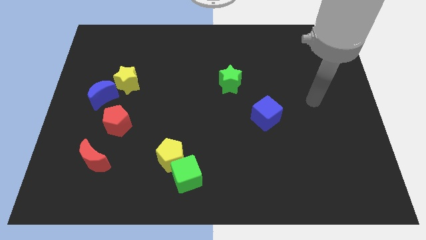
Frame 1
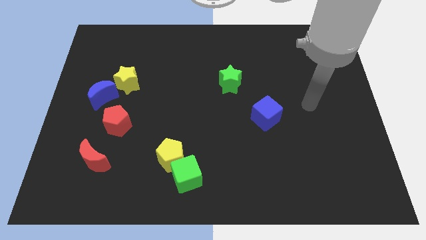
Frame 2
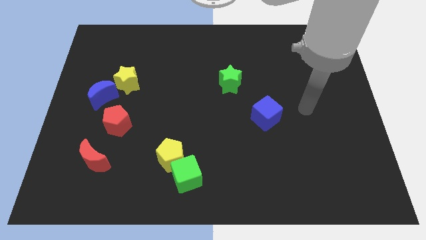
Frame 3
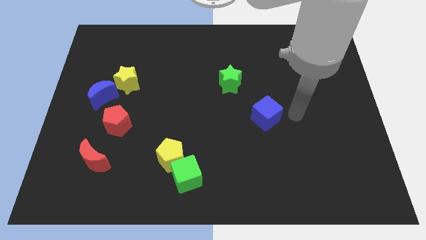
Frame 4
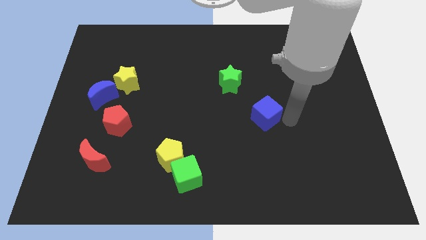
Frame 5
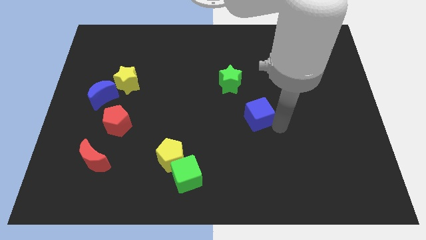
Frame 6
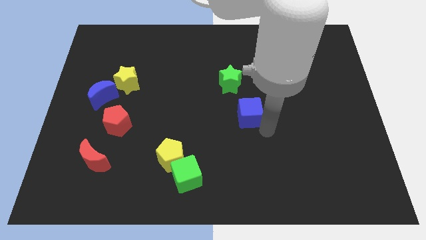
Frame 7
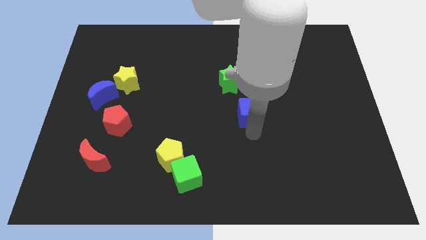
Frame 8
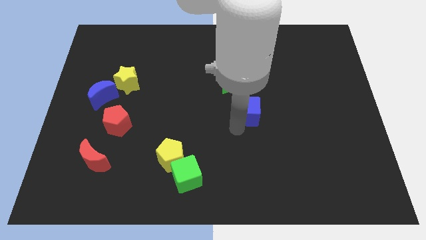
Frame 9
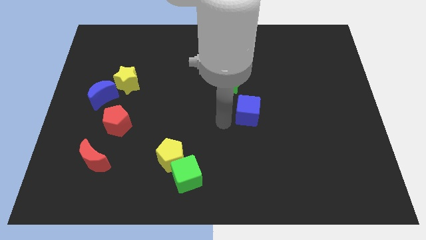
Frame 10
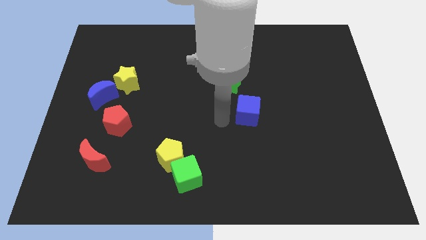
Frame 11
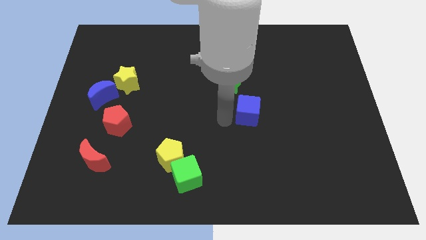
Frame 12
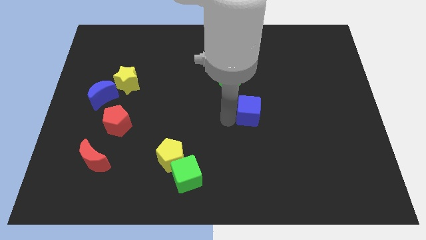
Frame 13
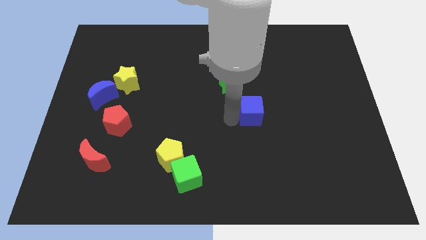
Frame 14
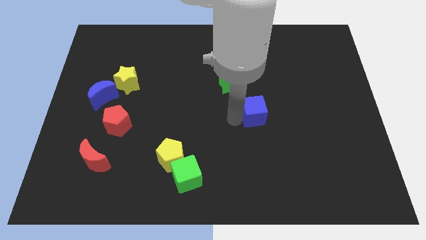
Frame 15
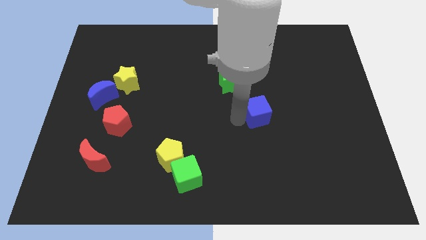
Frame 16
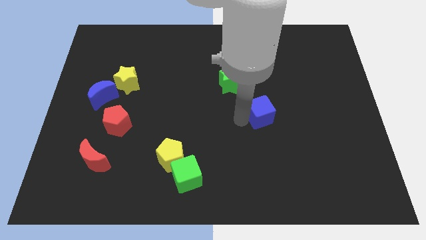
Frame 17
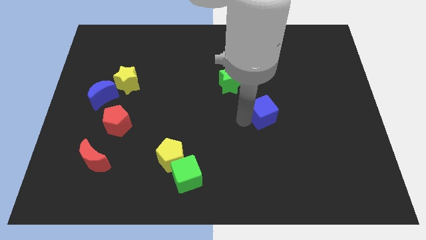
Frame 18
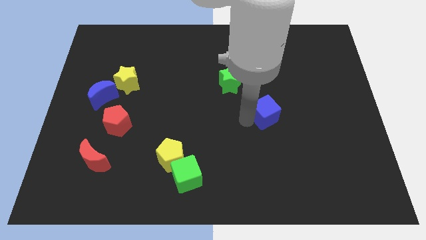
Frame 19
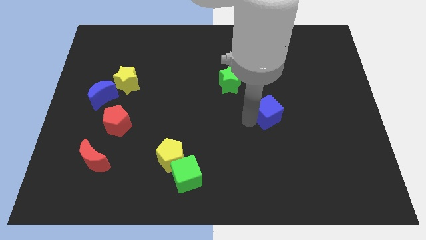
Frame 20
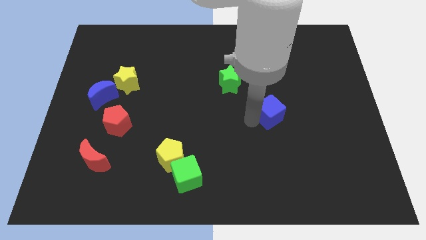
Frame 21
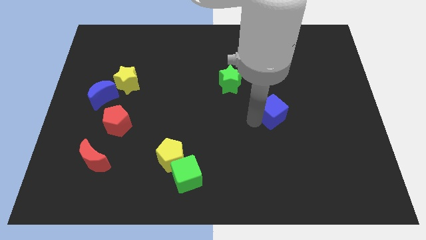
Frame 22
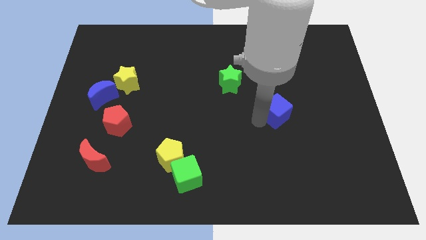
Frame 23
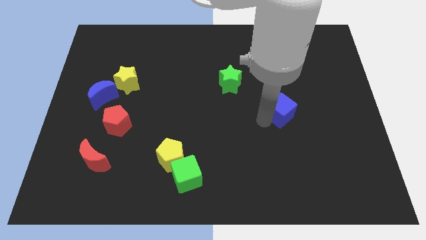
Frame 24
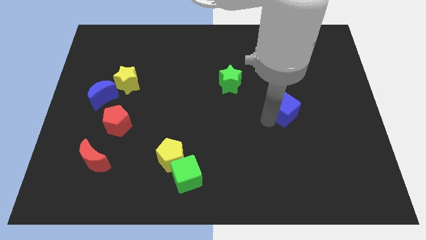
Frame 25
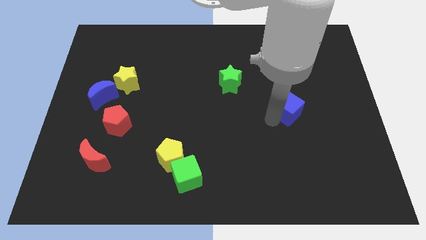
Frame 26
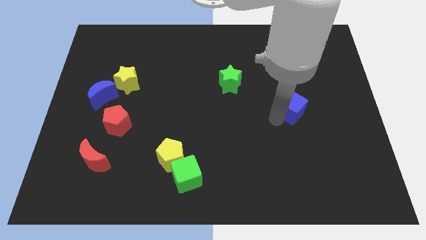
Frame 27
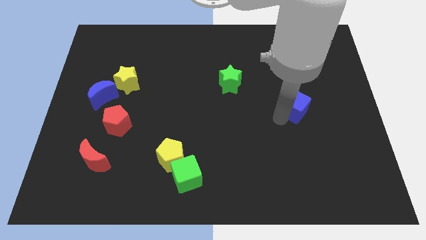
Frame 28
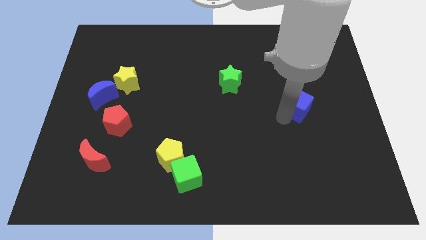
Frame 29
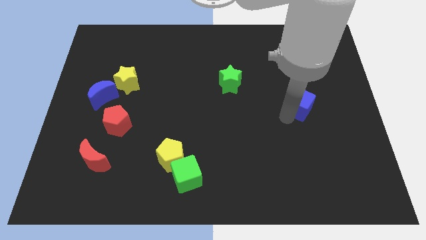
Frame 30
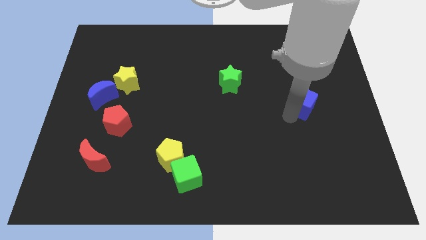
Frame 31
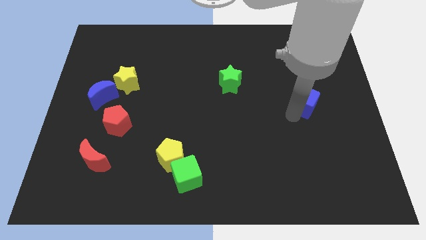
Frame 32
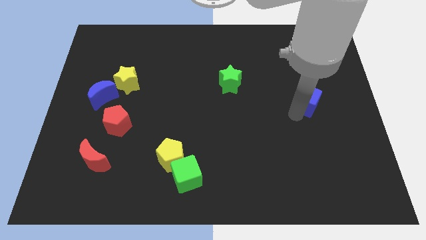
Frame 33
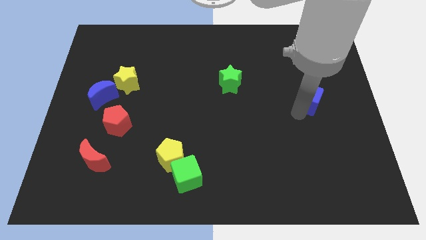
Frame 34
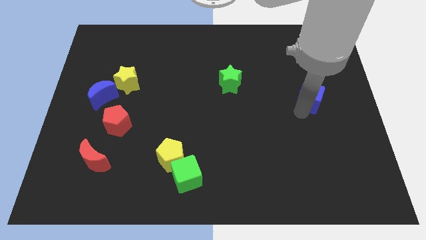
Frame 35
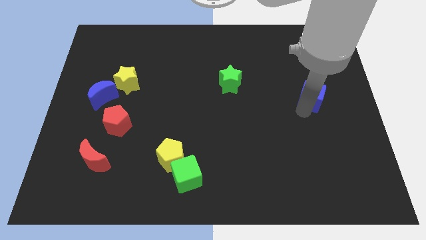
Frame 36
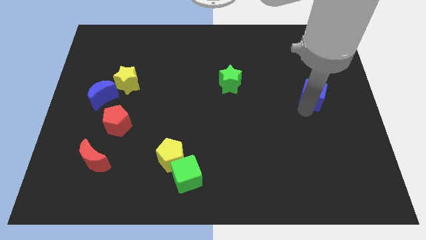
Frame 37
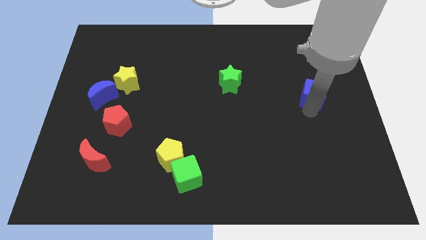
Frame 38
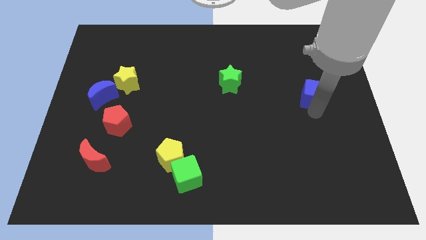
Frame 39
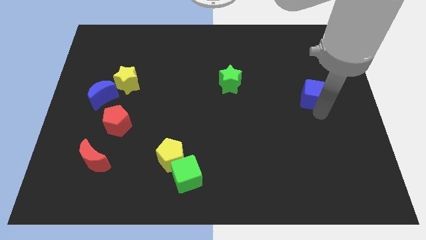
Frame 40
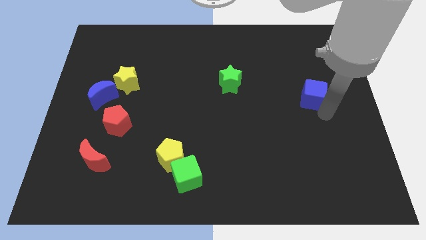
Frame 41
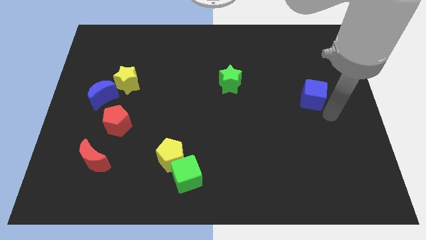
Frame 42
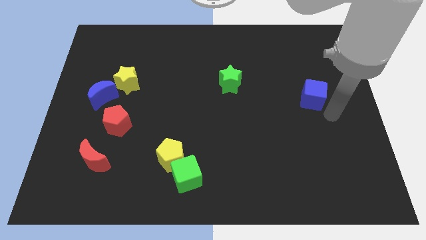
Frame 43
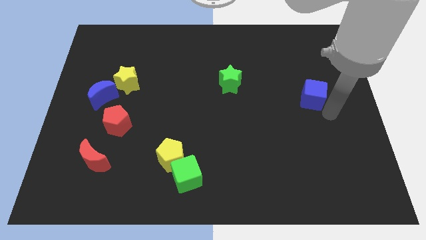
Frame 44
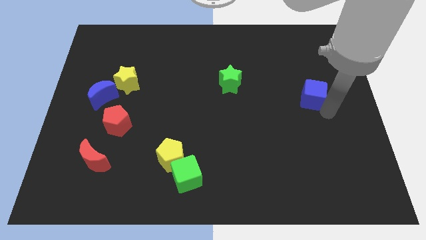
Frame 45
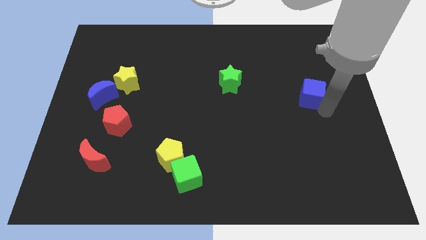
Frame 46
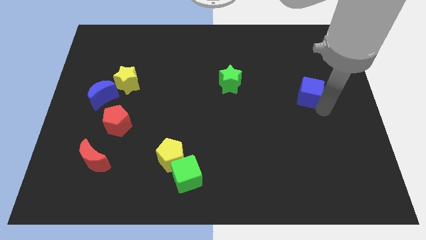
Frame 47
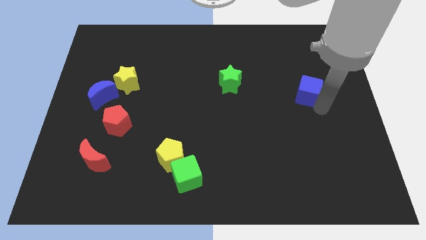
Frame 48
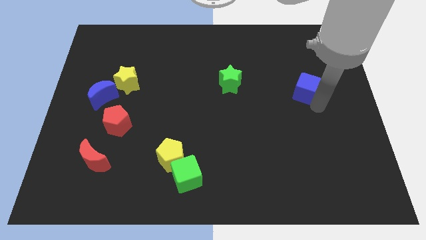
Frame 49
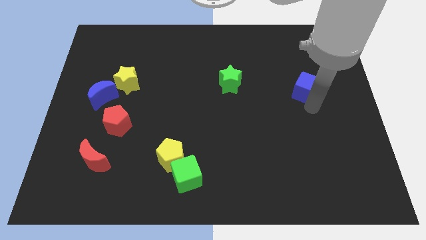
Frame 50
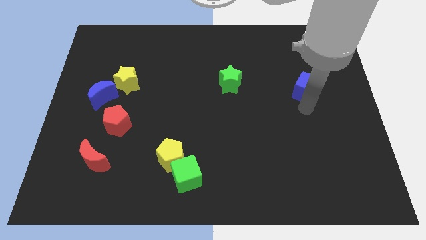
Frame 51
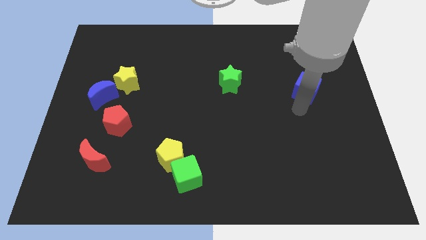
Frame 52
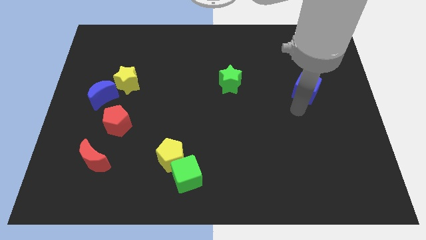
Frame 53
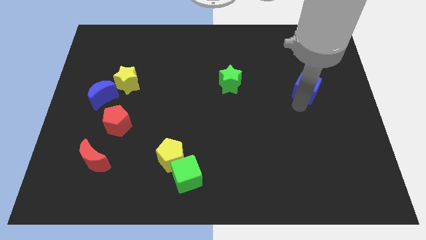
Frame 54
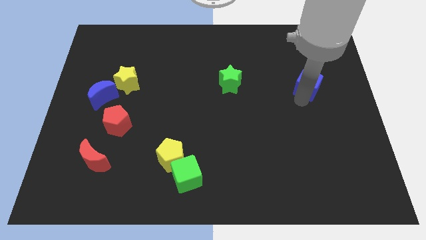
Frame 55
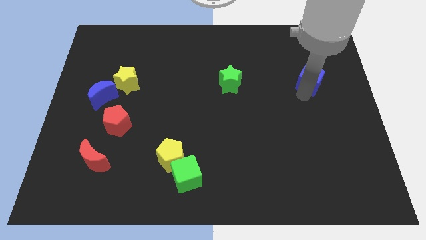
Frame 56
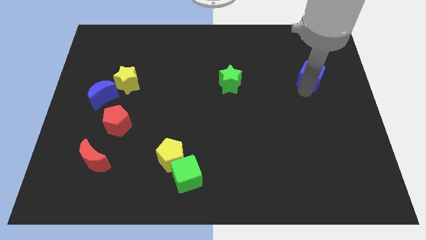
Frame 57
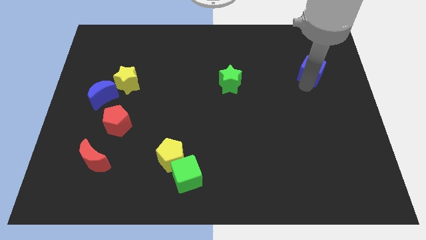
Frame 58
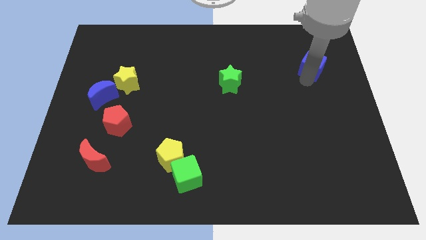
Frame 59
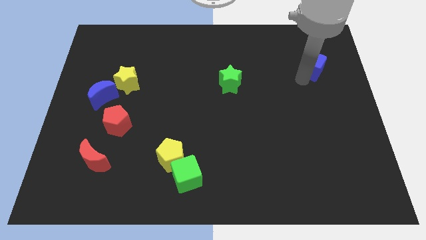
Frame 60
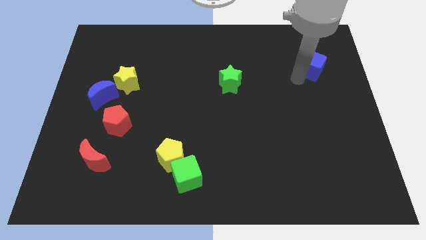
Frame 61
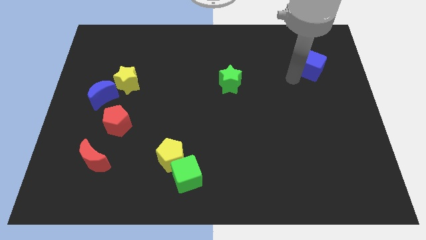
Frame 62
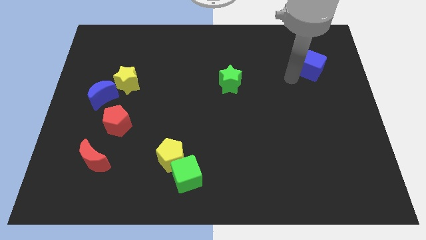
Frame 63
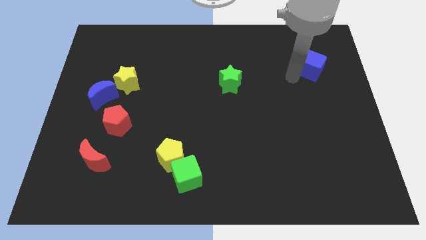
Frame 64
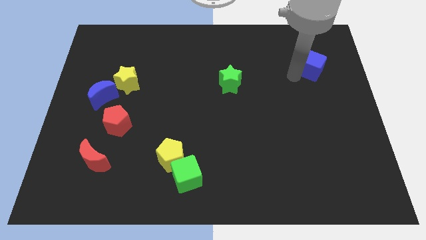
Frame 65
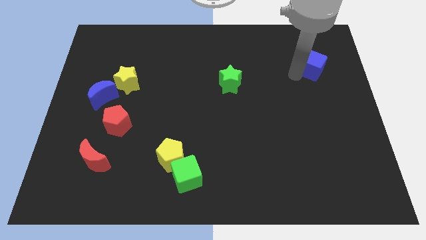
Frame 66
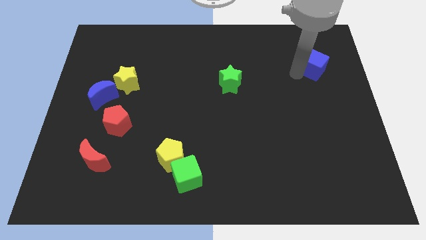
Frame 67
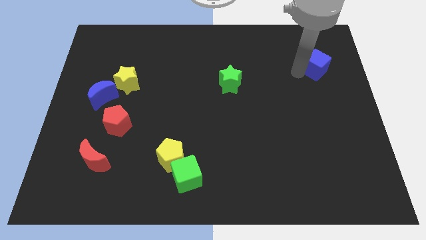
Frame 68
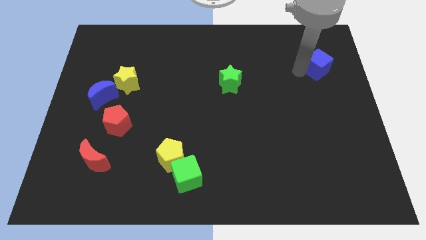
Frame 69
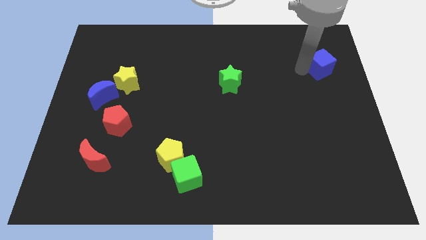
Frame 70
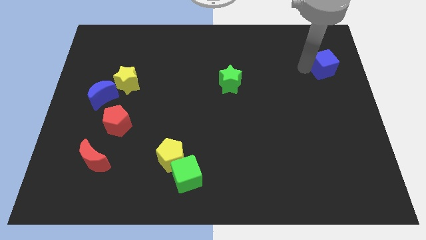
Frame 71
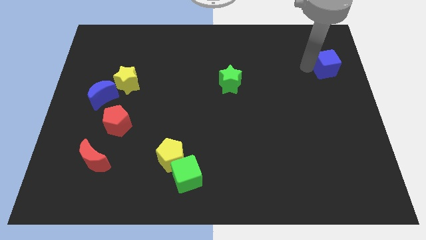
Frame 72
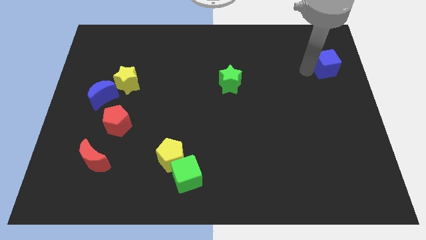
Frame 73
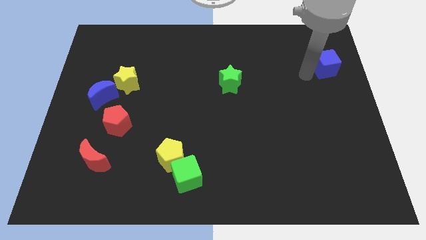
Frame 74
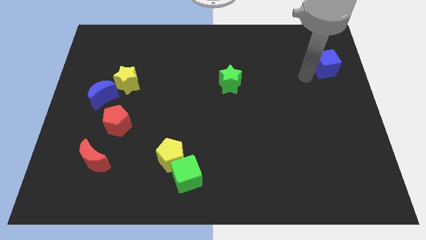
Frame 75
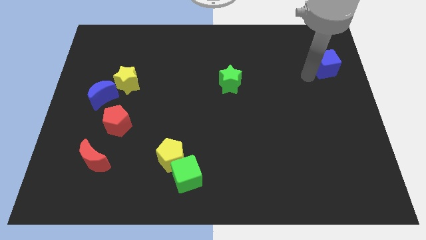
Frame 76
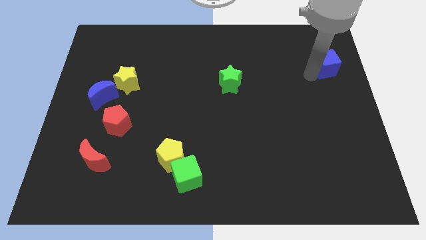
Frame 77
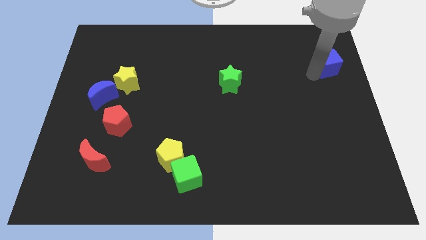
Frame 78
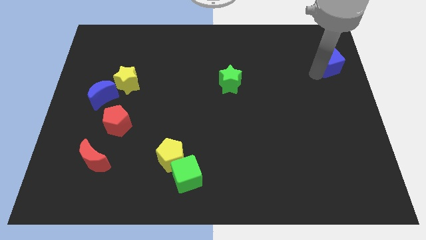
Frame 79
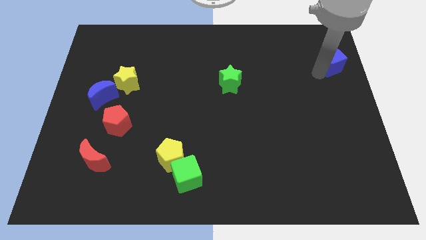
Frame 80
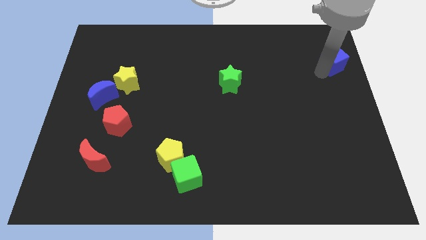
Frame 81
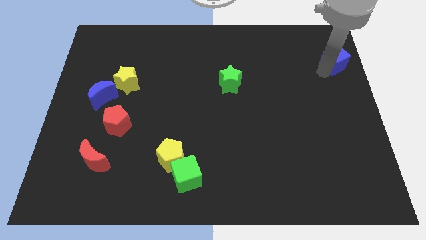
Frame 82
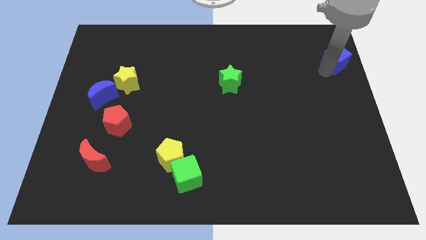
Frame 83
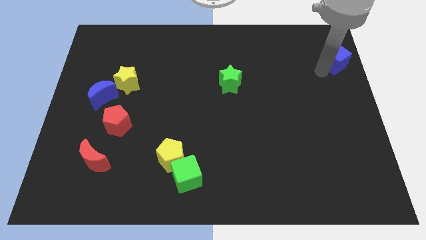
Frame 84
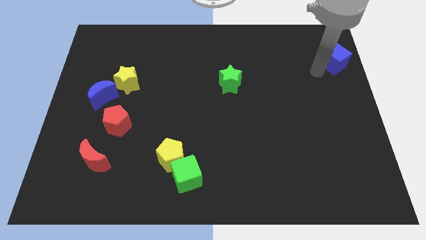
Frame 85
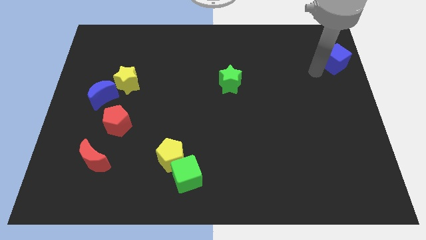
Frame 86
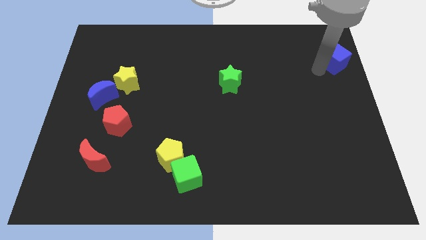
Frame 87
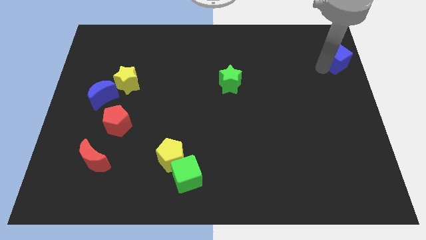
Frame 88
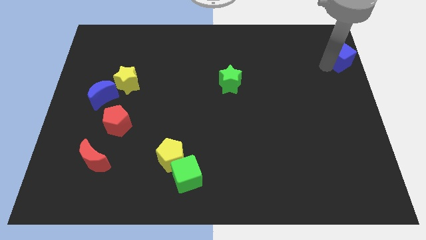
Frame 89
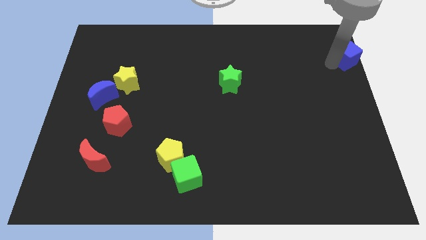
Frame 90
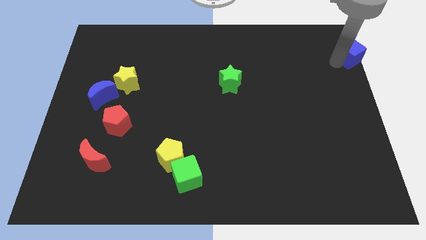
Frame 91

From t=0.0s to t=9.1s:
put the blue cube to the top right corner
